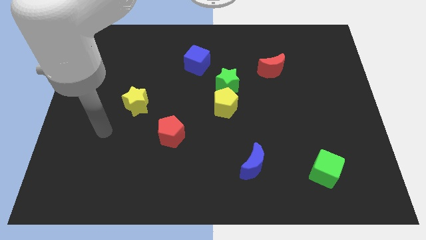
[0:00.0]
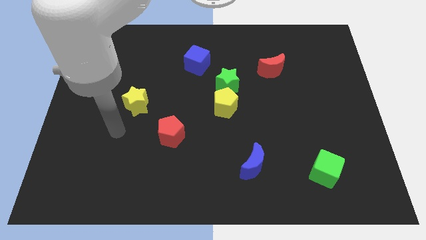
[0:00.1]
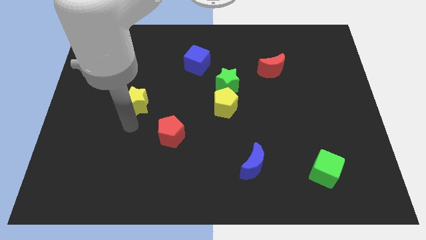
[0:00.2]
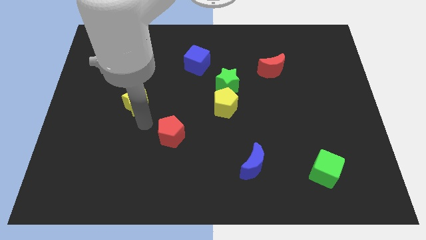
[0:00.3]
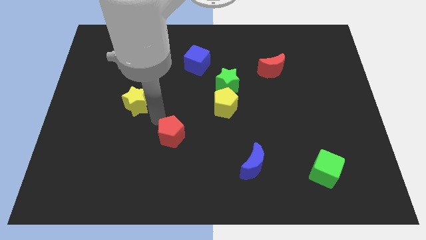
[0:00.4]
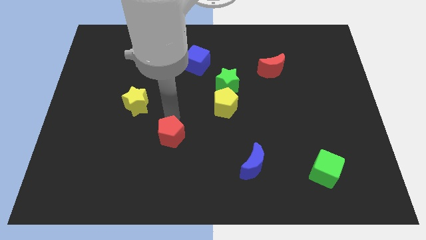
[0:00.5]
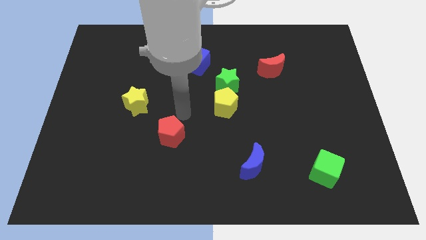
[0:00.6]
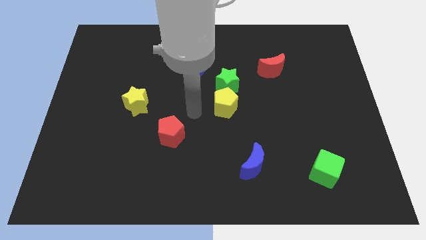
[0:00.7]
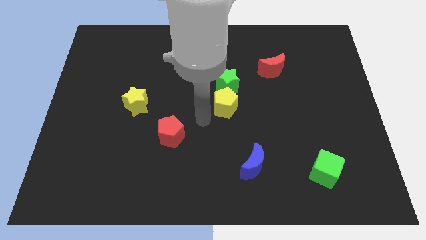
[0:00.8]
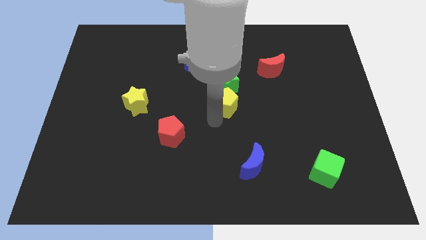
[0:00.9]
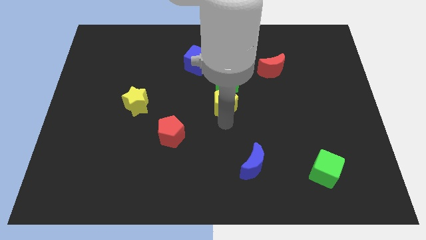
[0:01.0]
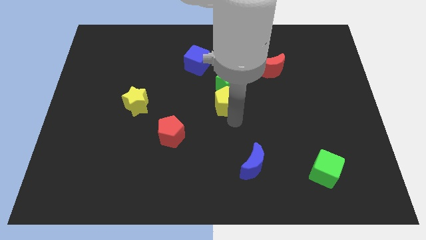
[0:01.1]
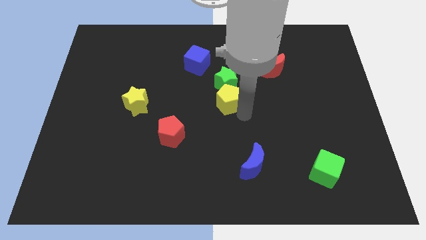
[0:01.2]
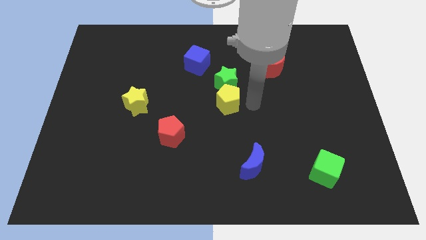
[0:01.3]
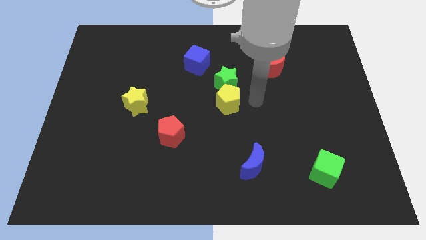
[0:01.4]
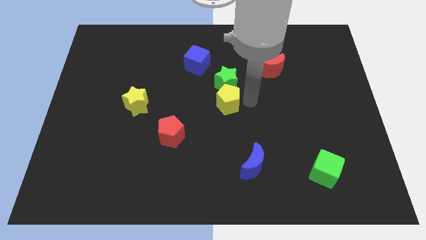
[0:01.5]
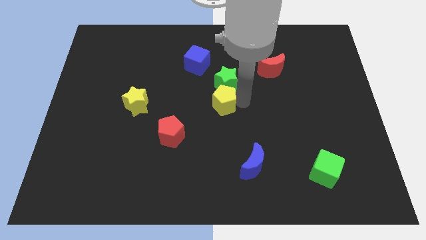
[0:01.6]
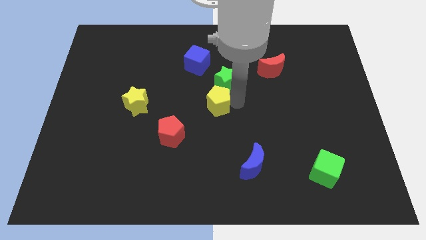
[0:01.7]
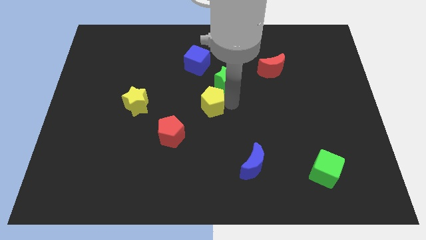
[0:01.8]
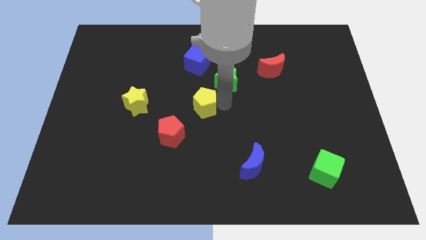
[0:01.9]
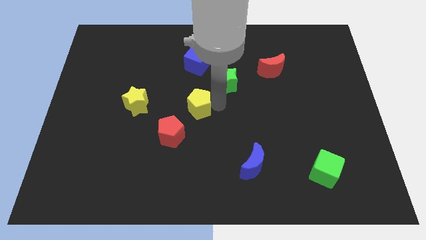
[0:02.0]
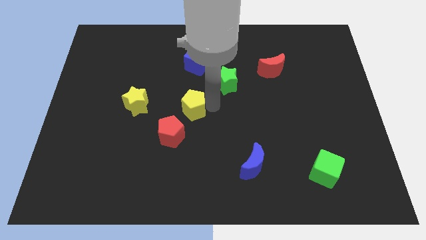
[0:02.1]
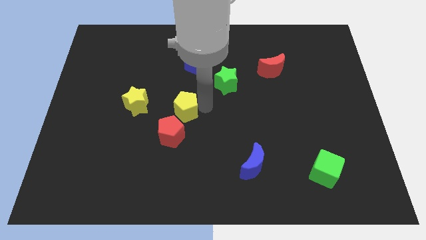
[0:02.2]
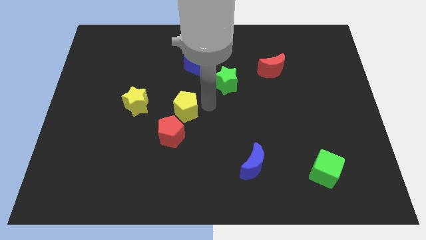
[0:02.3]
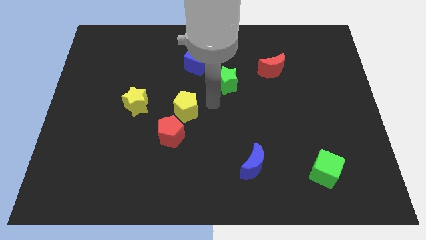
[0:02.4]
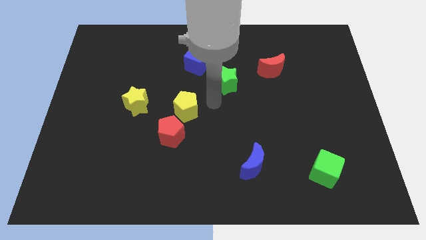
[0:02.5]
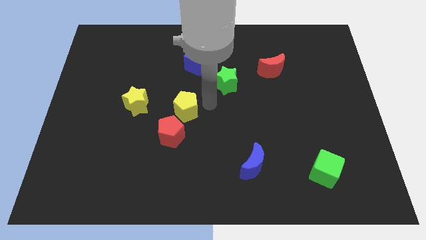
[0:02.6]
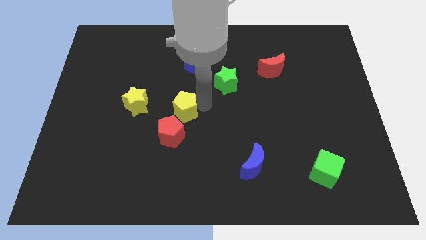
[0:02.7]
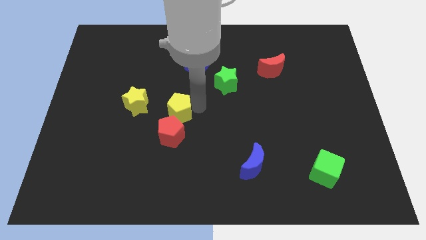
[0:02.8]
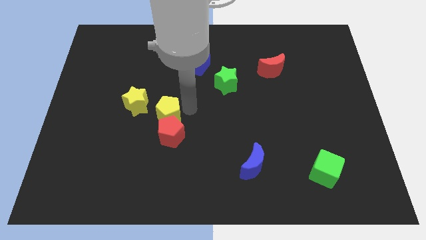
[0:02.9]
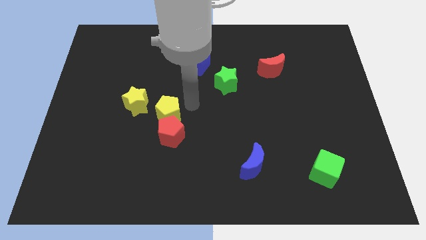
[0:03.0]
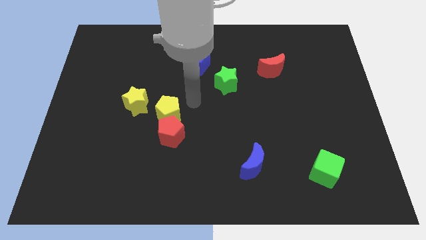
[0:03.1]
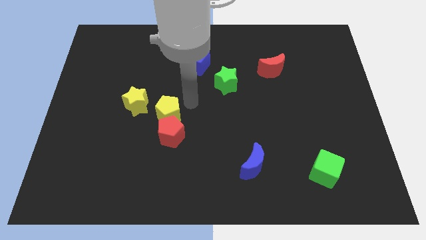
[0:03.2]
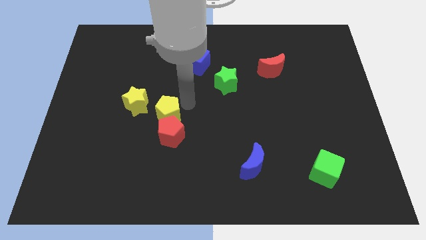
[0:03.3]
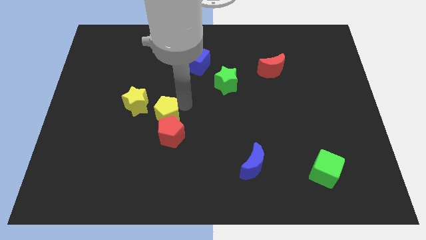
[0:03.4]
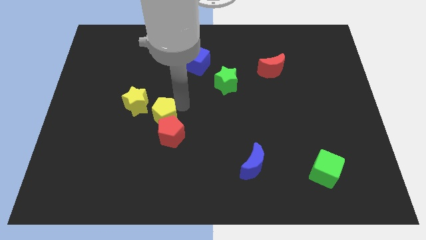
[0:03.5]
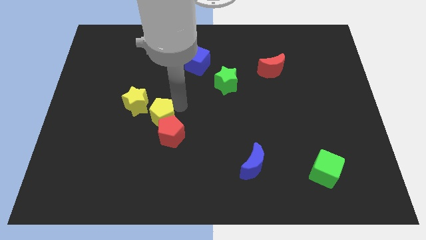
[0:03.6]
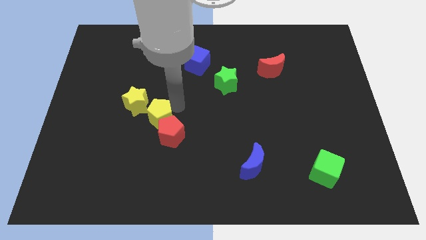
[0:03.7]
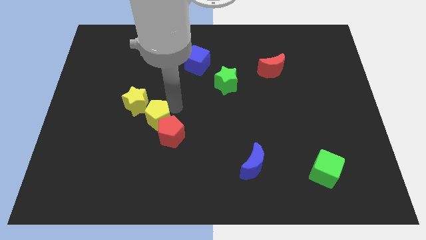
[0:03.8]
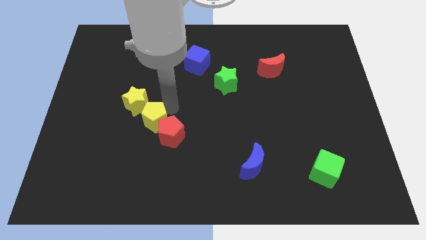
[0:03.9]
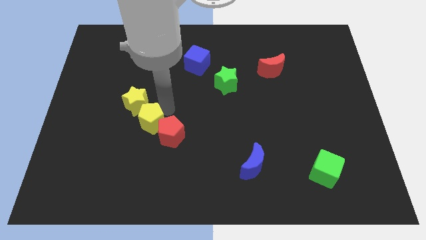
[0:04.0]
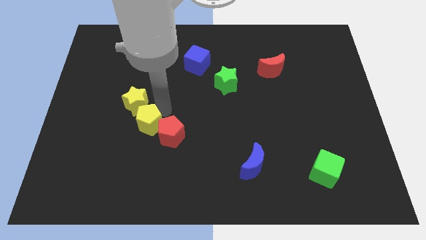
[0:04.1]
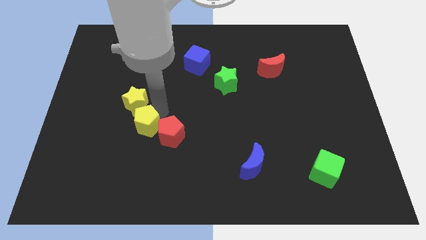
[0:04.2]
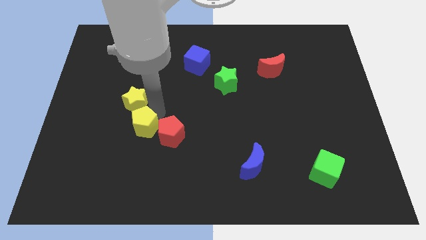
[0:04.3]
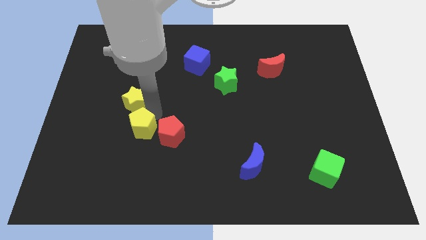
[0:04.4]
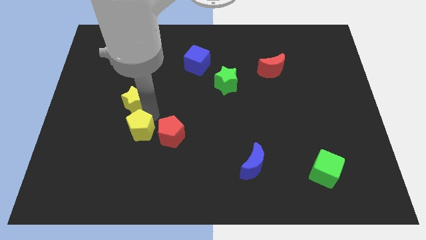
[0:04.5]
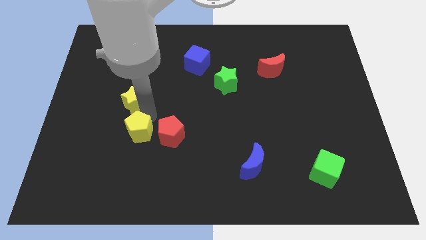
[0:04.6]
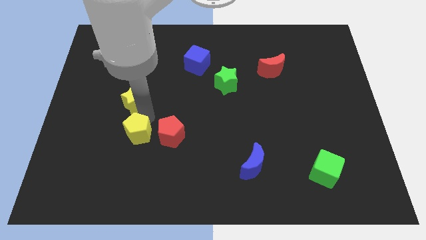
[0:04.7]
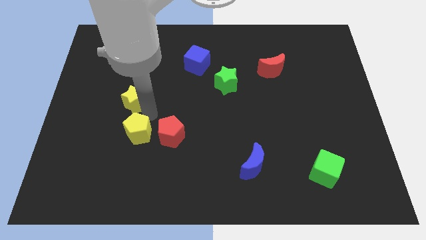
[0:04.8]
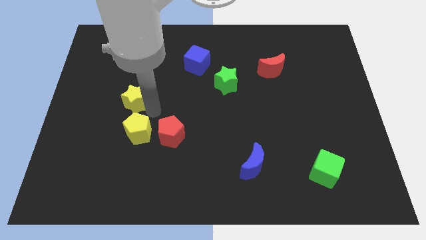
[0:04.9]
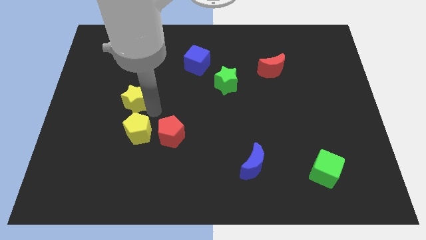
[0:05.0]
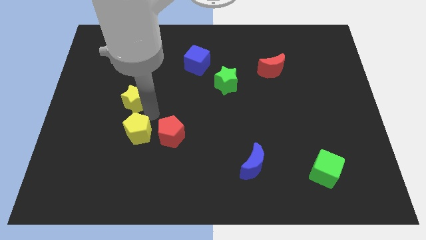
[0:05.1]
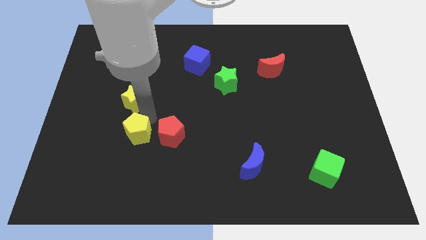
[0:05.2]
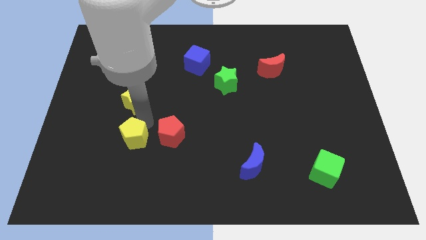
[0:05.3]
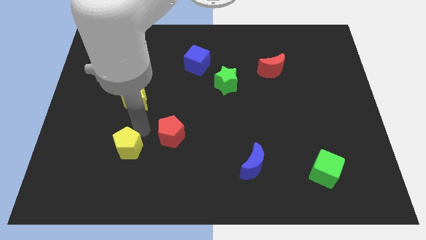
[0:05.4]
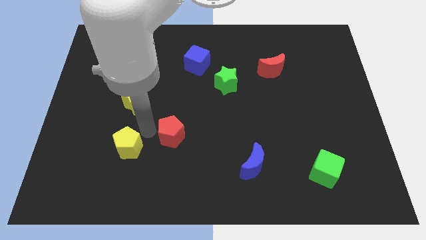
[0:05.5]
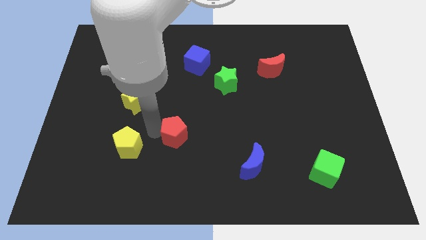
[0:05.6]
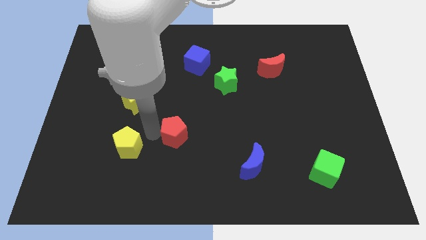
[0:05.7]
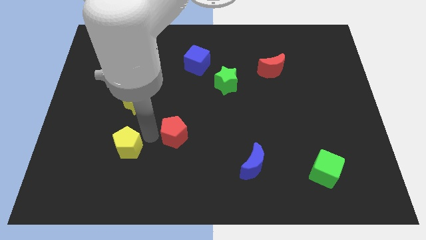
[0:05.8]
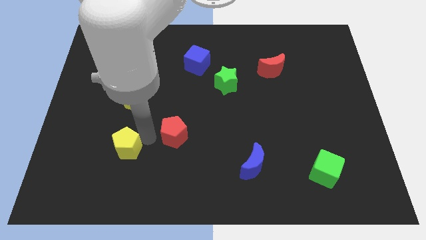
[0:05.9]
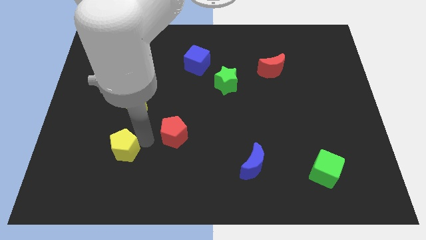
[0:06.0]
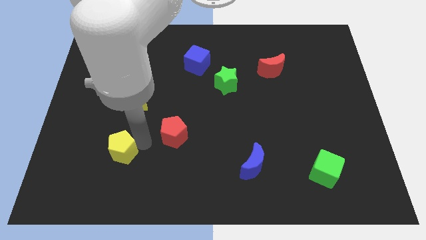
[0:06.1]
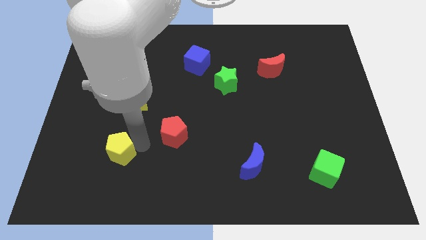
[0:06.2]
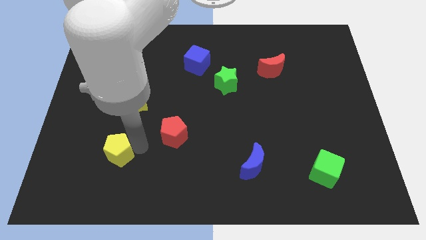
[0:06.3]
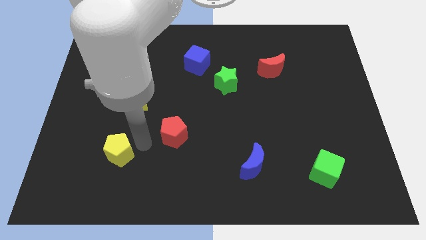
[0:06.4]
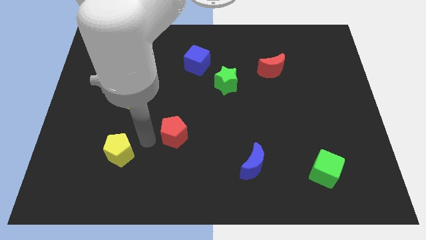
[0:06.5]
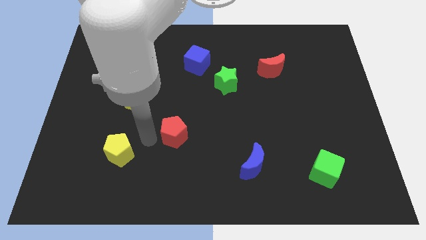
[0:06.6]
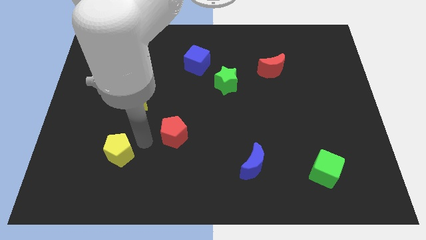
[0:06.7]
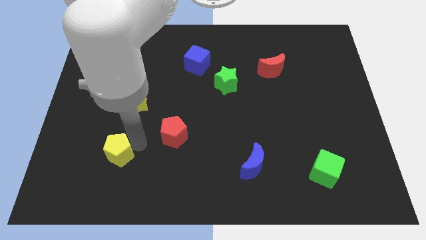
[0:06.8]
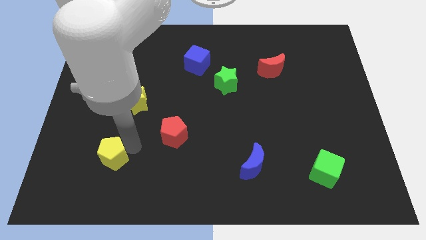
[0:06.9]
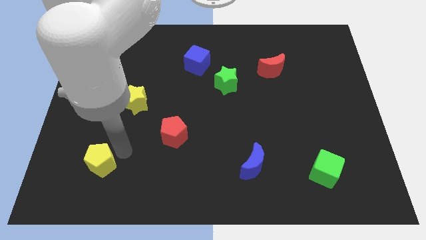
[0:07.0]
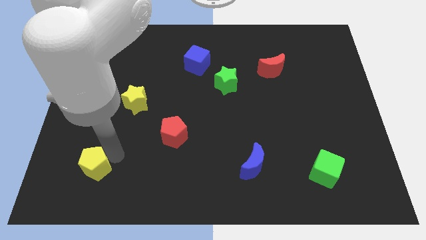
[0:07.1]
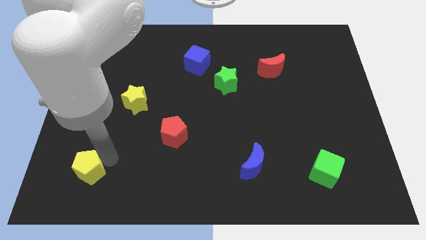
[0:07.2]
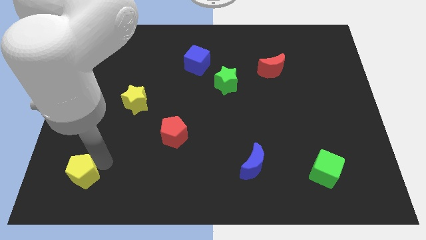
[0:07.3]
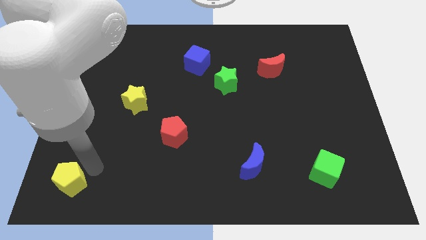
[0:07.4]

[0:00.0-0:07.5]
move the yellow pentagon to the bottom left

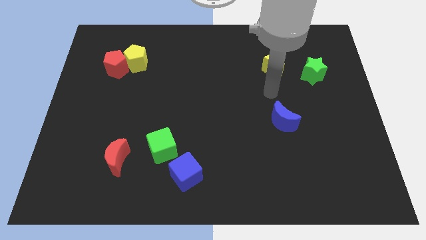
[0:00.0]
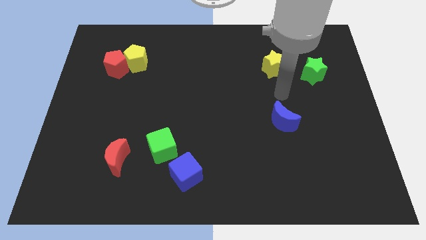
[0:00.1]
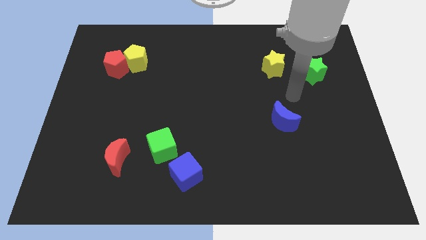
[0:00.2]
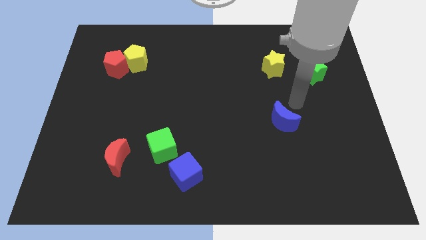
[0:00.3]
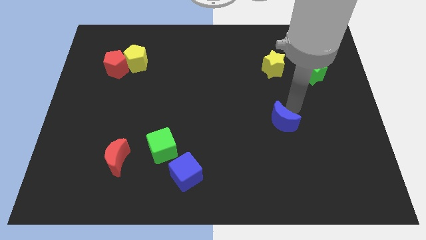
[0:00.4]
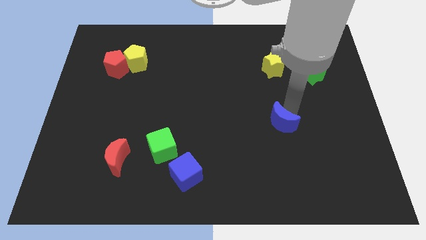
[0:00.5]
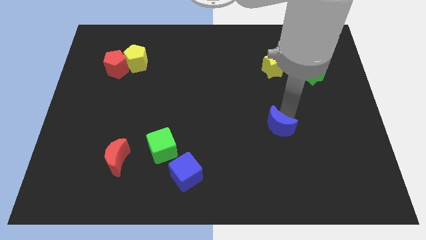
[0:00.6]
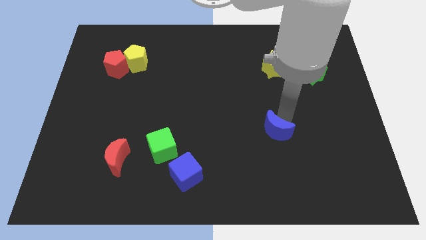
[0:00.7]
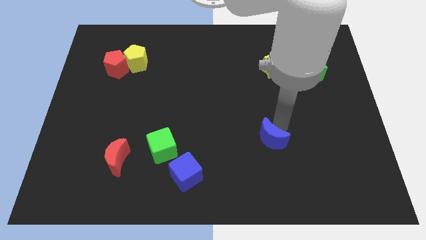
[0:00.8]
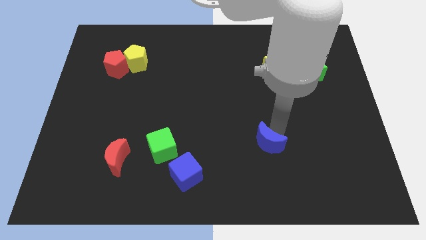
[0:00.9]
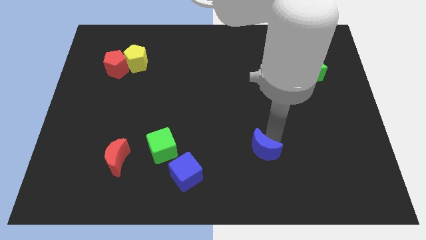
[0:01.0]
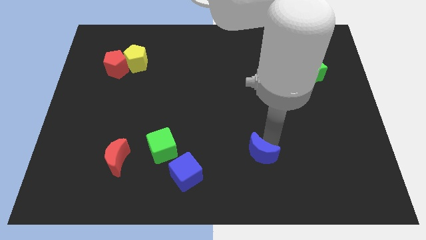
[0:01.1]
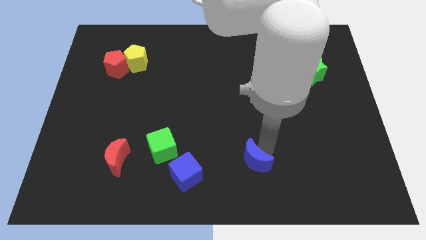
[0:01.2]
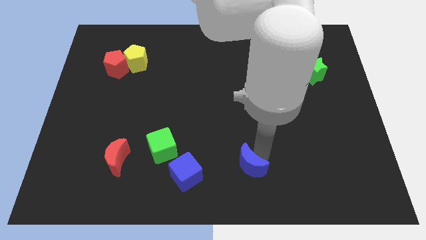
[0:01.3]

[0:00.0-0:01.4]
put the blue moon to the bottom
